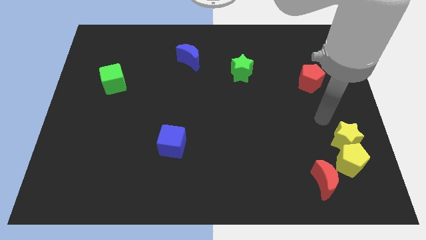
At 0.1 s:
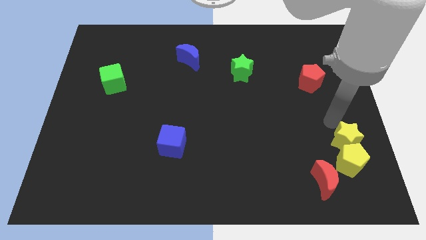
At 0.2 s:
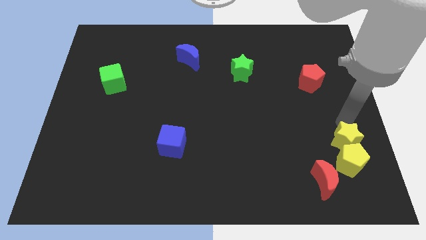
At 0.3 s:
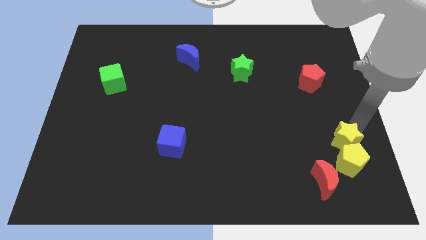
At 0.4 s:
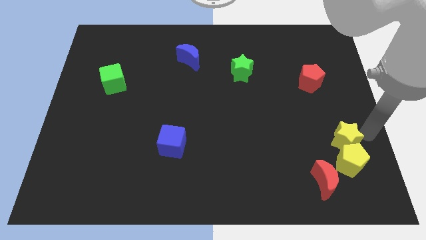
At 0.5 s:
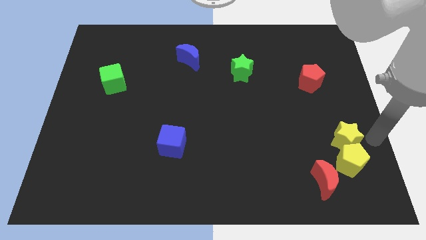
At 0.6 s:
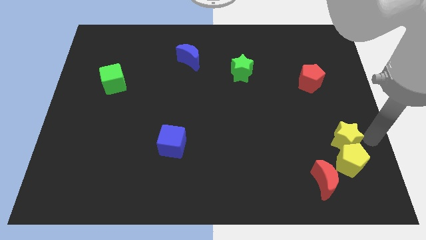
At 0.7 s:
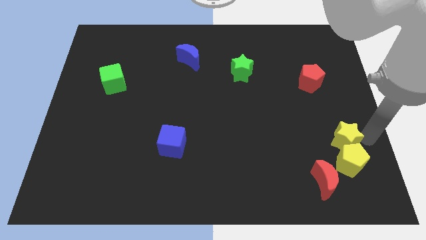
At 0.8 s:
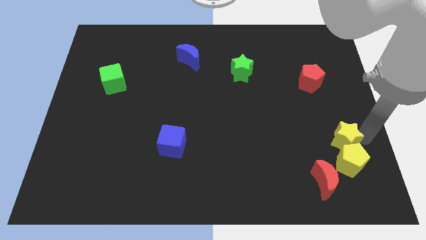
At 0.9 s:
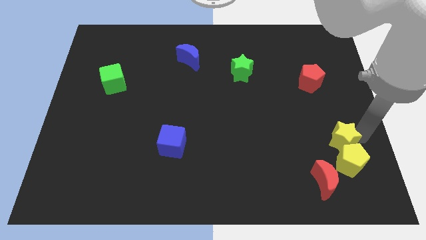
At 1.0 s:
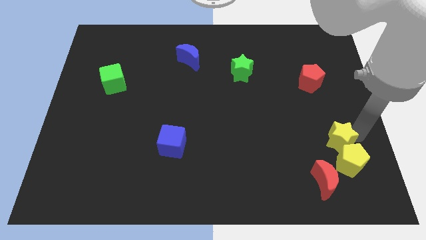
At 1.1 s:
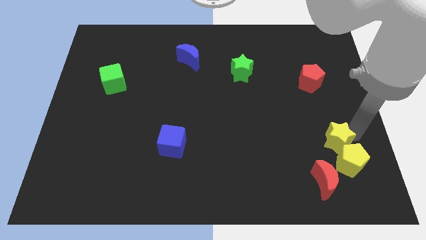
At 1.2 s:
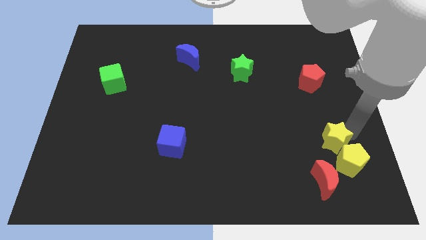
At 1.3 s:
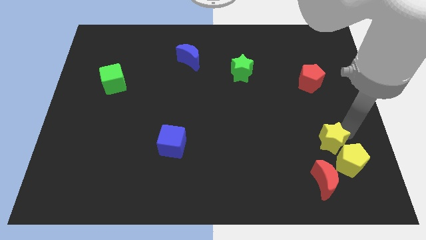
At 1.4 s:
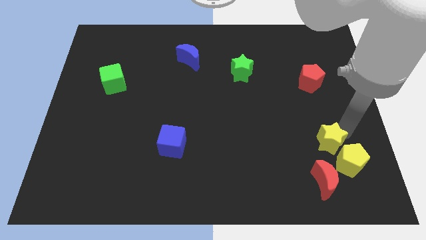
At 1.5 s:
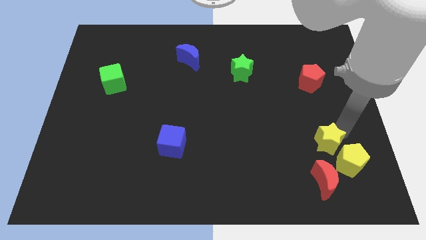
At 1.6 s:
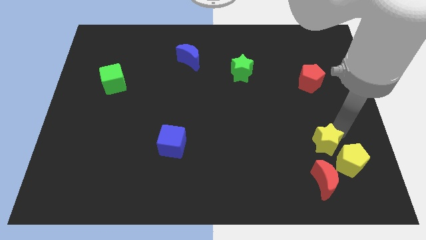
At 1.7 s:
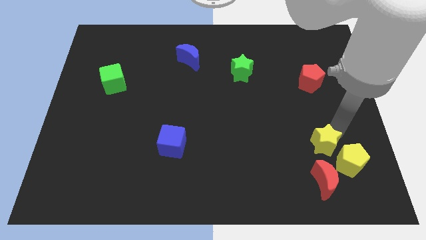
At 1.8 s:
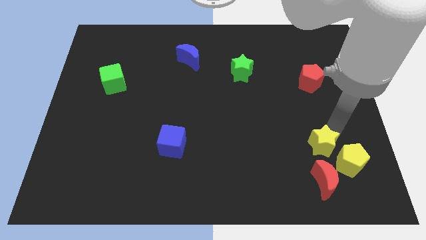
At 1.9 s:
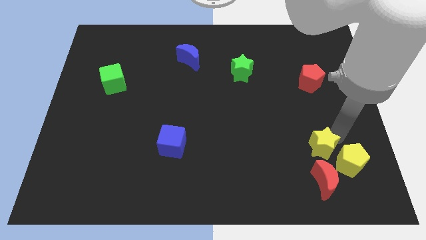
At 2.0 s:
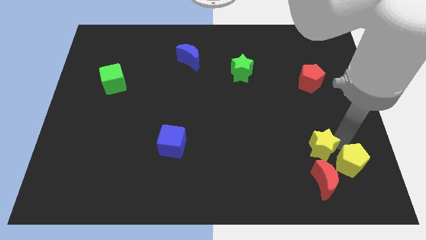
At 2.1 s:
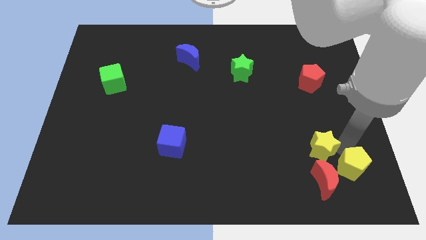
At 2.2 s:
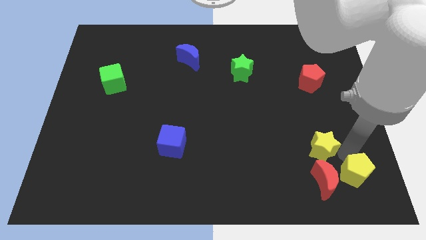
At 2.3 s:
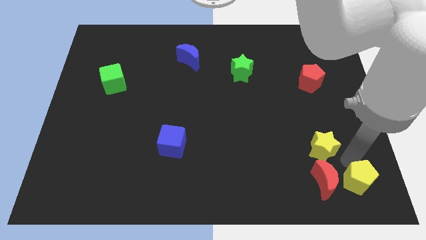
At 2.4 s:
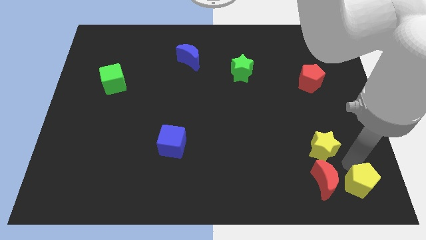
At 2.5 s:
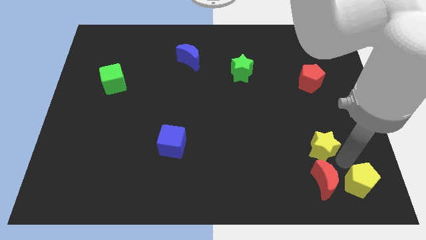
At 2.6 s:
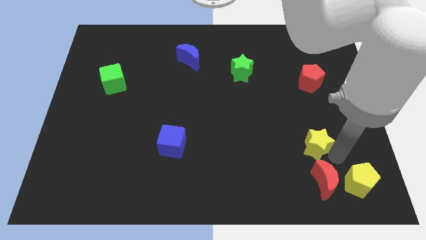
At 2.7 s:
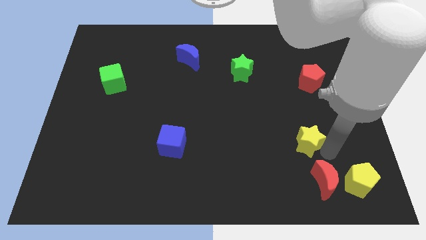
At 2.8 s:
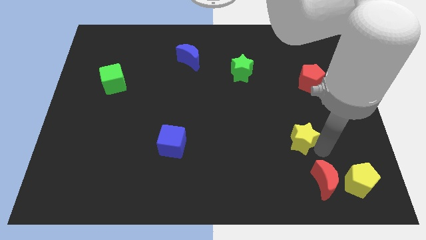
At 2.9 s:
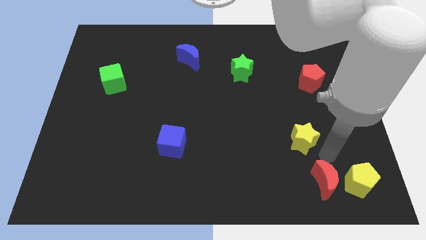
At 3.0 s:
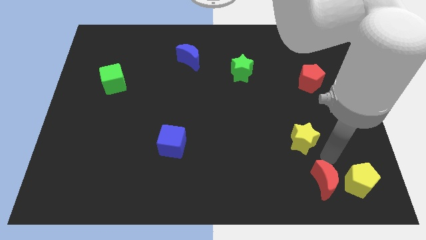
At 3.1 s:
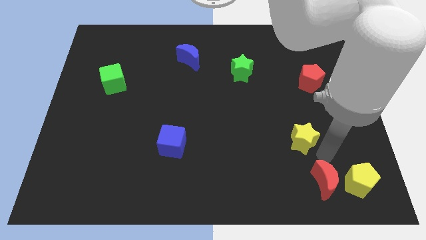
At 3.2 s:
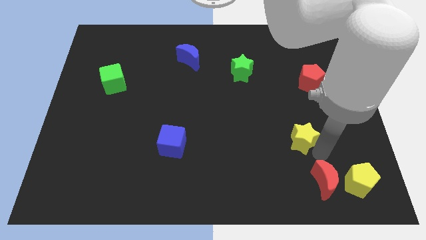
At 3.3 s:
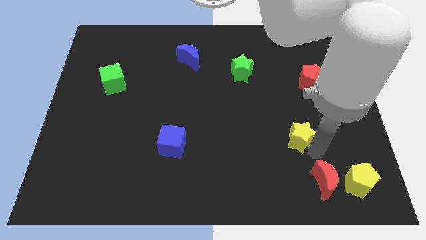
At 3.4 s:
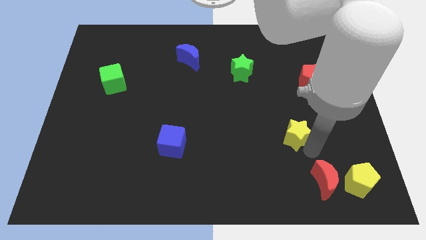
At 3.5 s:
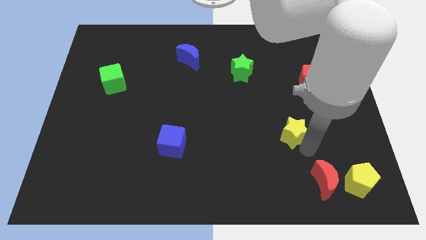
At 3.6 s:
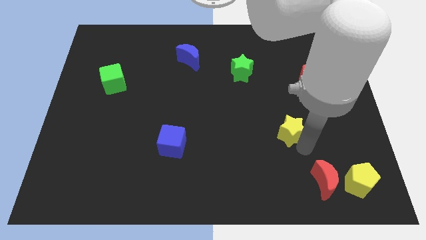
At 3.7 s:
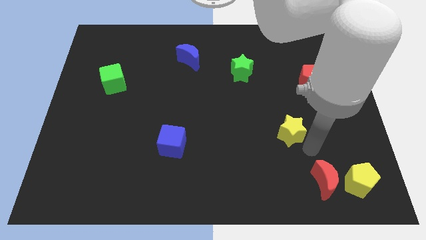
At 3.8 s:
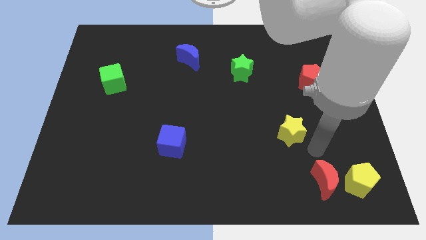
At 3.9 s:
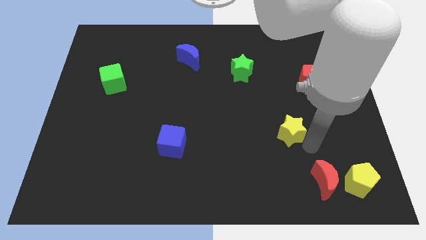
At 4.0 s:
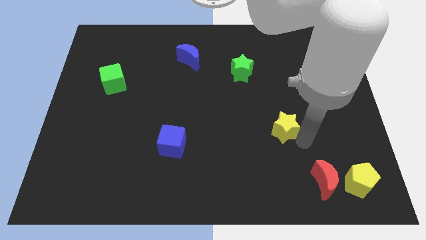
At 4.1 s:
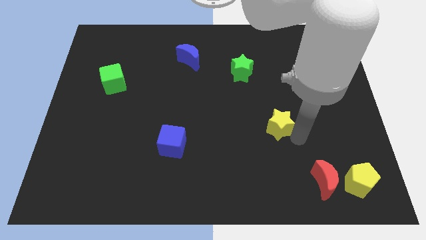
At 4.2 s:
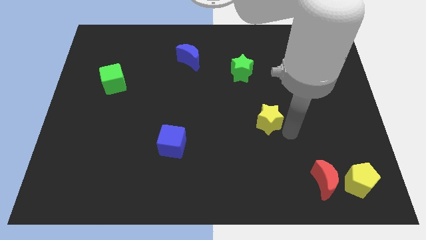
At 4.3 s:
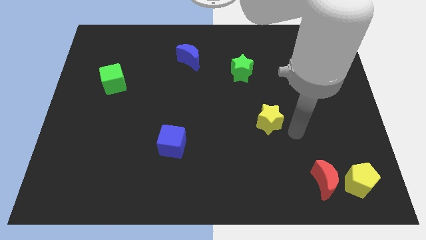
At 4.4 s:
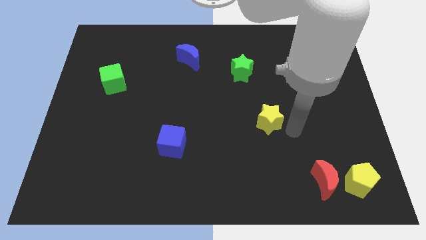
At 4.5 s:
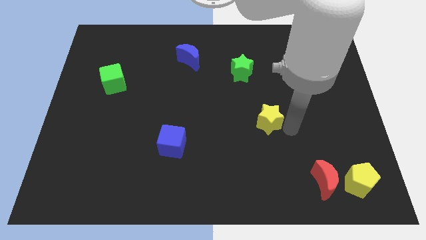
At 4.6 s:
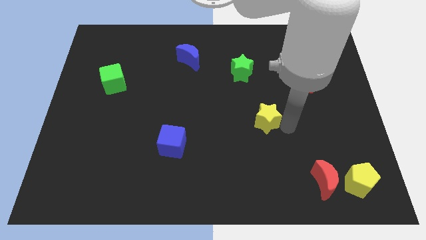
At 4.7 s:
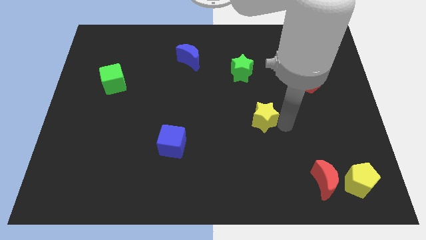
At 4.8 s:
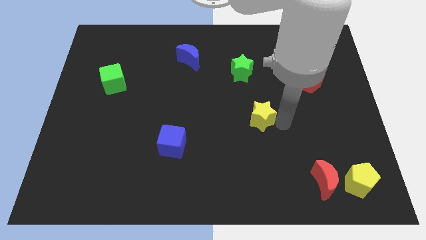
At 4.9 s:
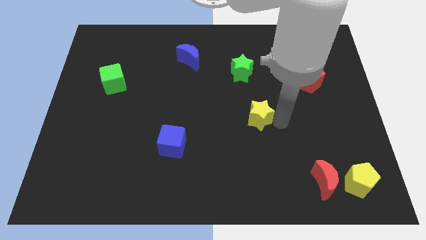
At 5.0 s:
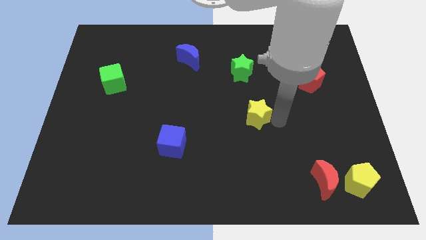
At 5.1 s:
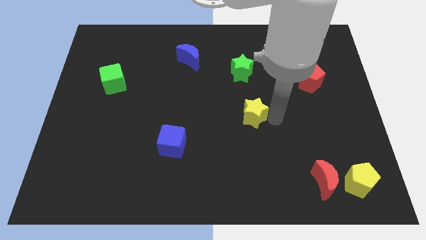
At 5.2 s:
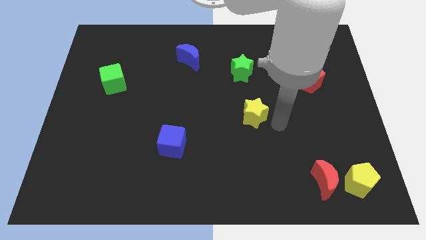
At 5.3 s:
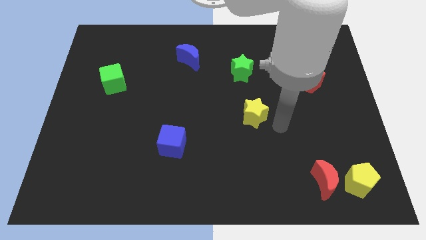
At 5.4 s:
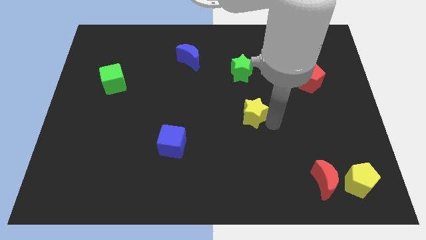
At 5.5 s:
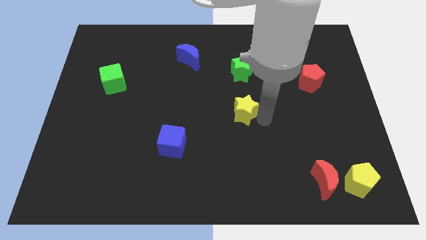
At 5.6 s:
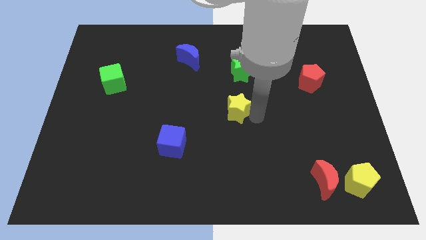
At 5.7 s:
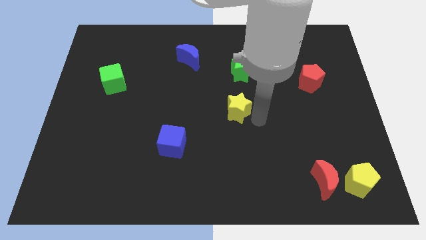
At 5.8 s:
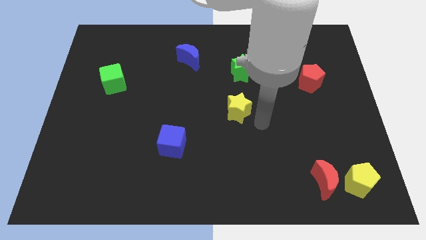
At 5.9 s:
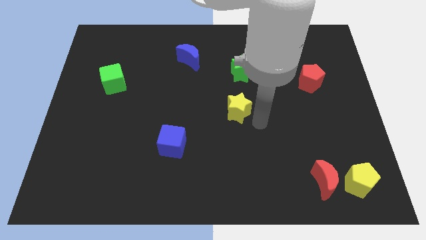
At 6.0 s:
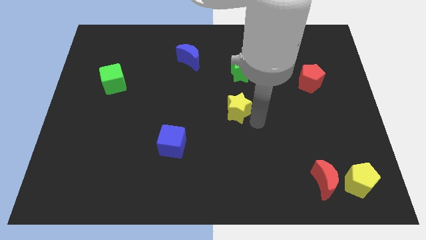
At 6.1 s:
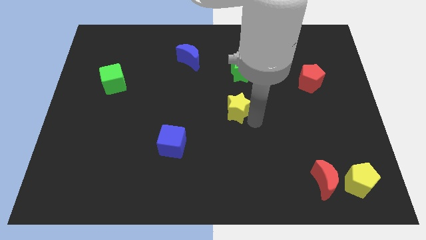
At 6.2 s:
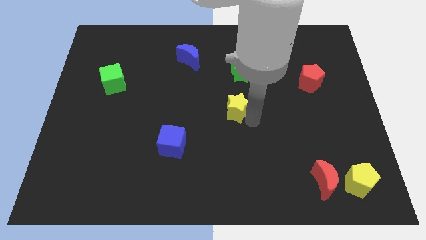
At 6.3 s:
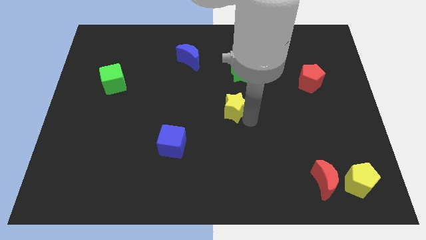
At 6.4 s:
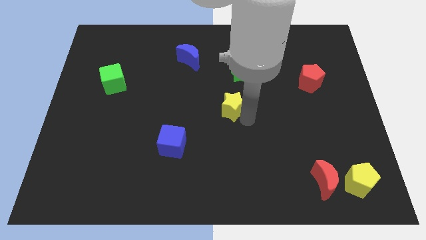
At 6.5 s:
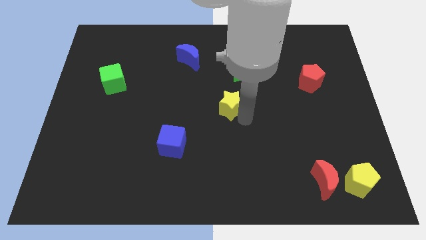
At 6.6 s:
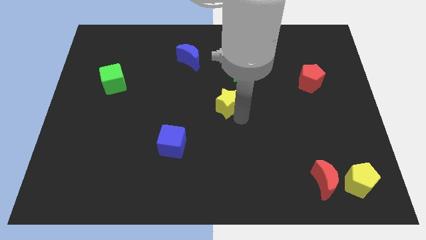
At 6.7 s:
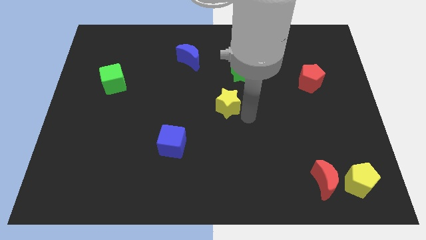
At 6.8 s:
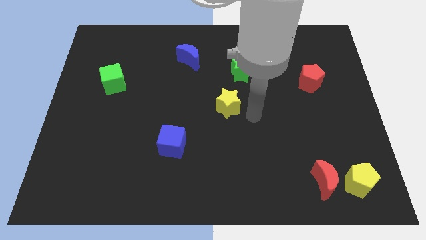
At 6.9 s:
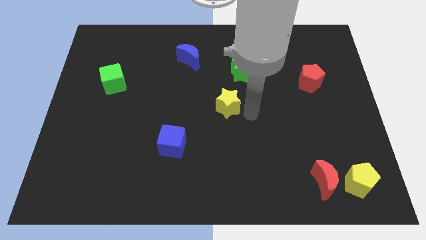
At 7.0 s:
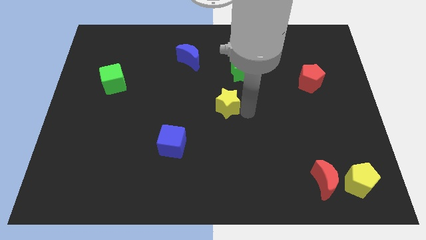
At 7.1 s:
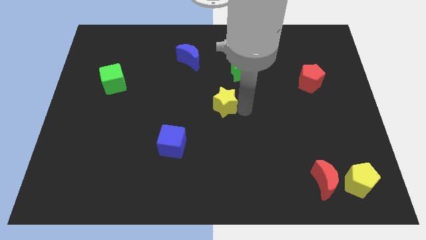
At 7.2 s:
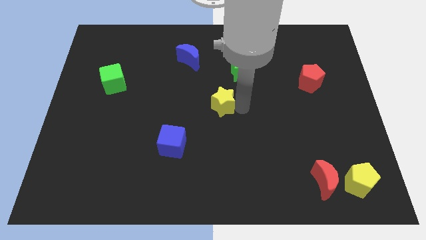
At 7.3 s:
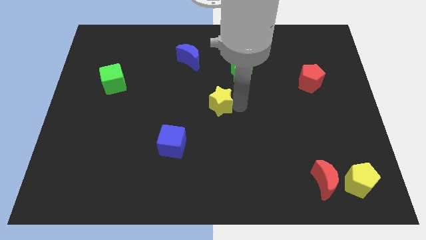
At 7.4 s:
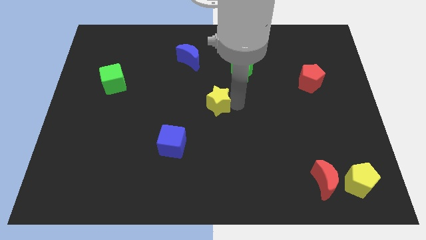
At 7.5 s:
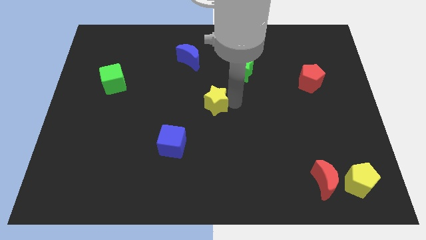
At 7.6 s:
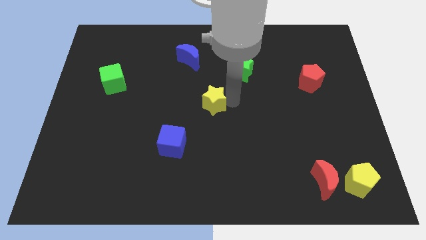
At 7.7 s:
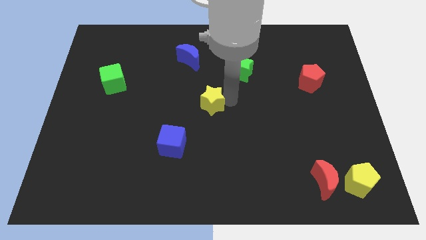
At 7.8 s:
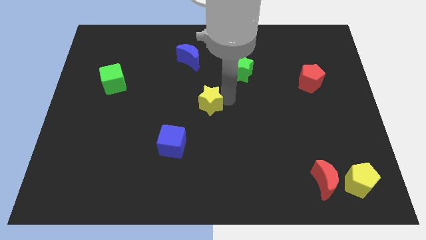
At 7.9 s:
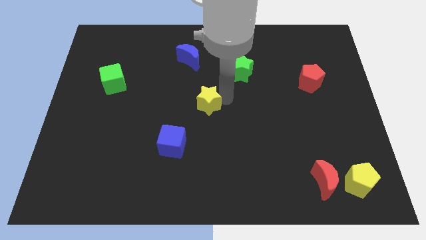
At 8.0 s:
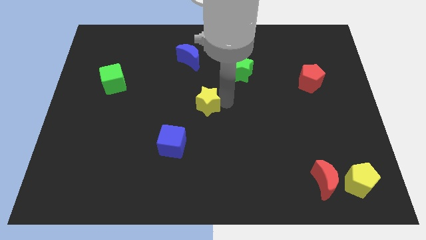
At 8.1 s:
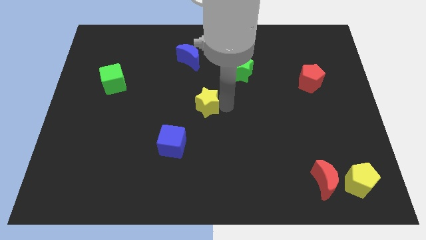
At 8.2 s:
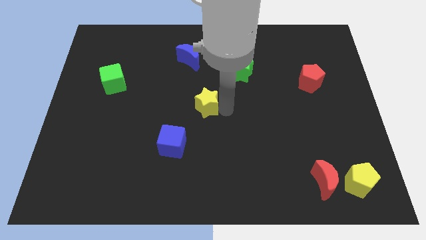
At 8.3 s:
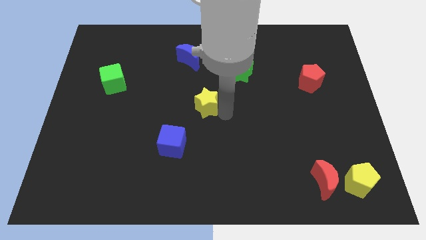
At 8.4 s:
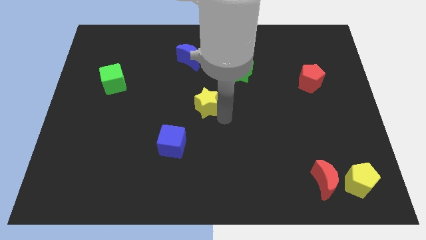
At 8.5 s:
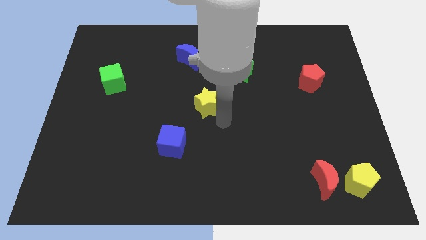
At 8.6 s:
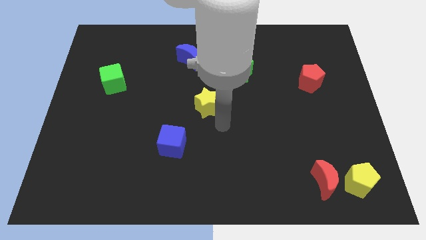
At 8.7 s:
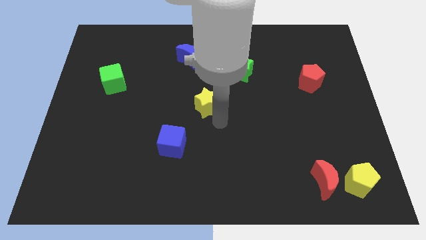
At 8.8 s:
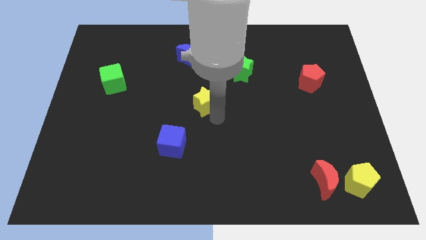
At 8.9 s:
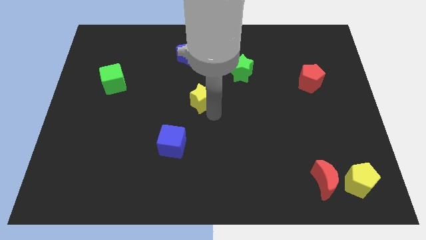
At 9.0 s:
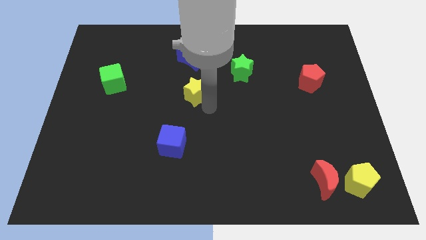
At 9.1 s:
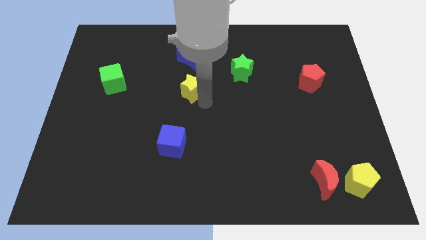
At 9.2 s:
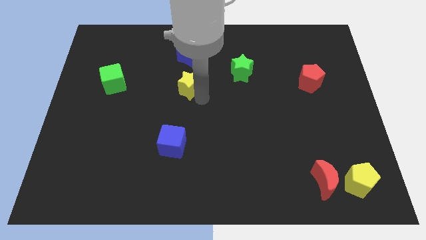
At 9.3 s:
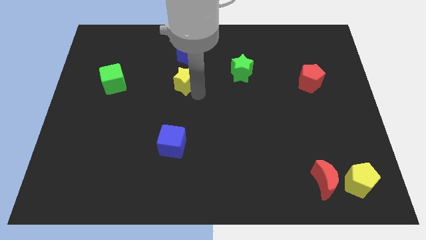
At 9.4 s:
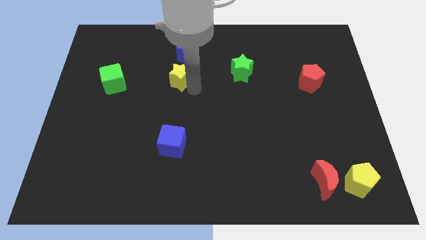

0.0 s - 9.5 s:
move the yellow star to the bottom left of the blue moon
